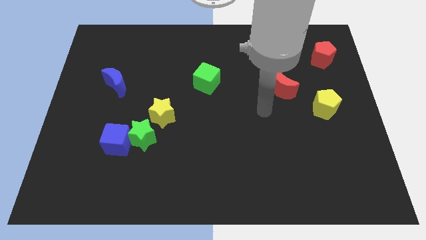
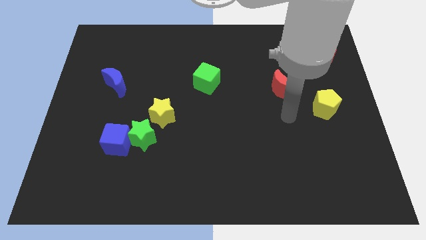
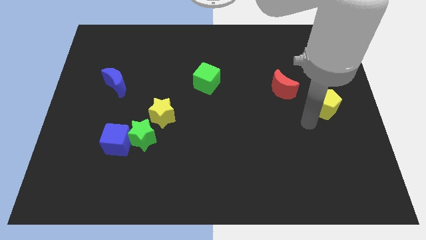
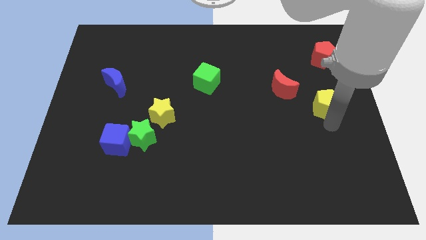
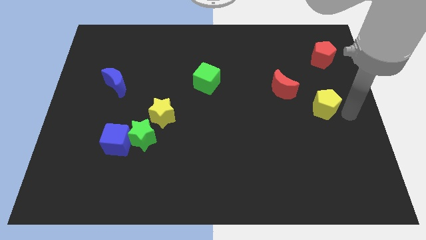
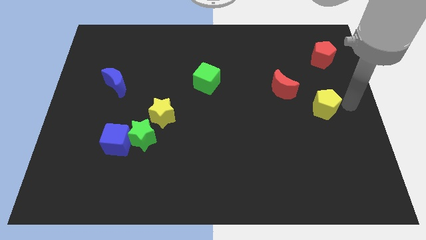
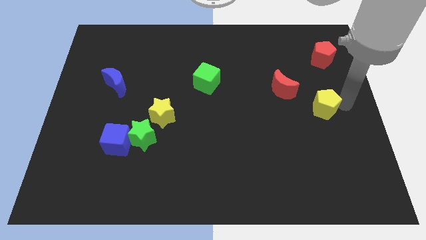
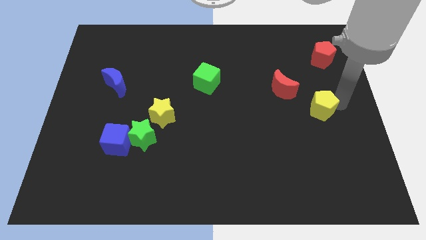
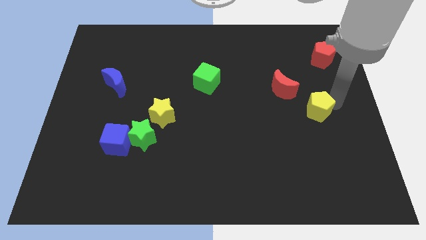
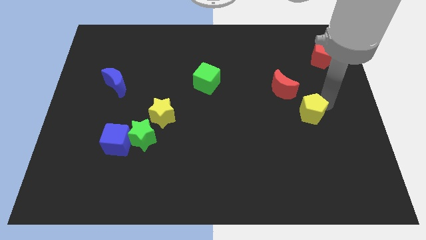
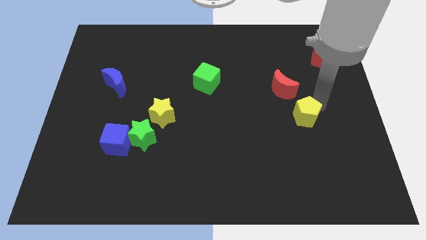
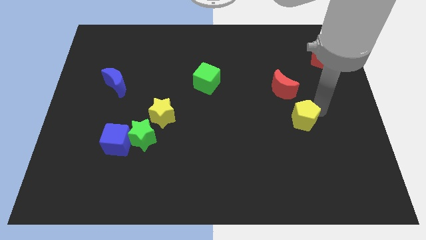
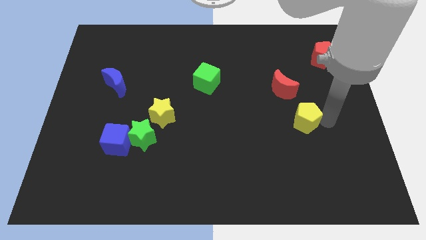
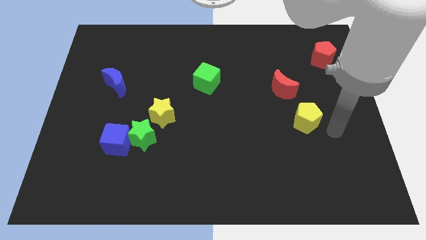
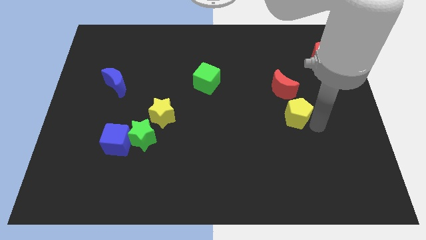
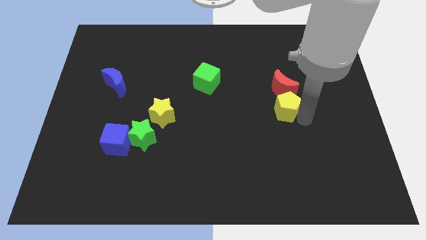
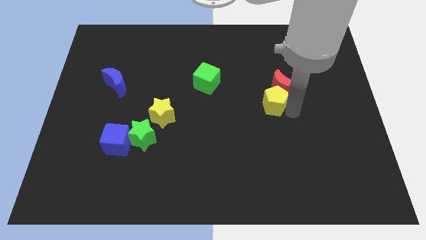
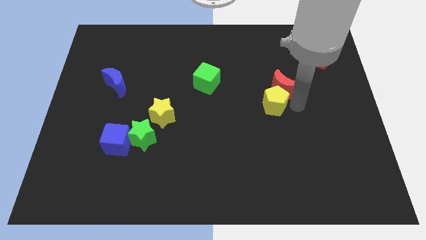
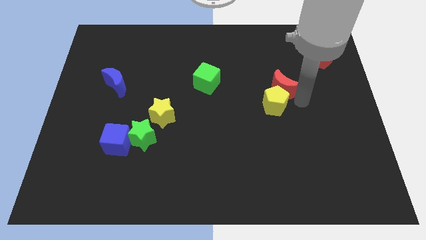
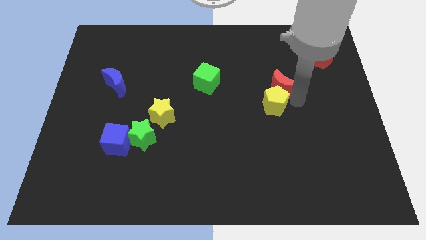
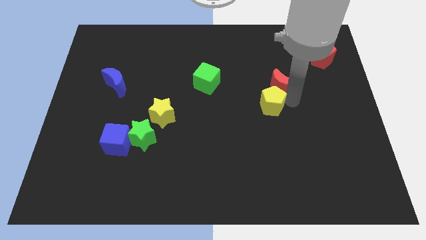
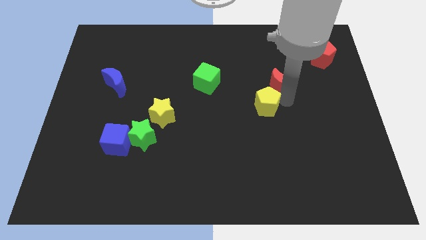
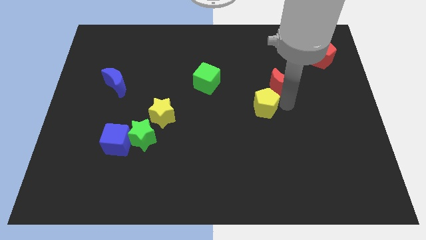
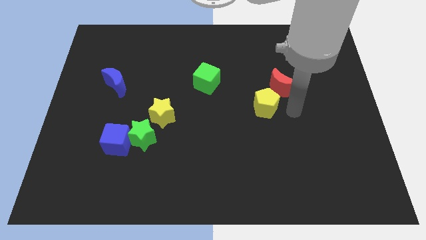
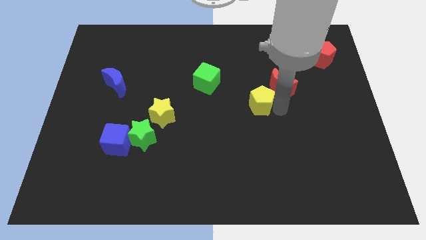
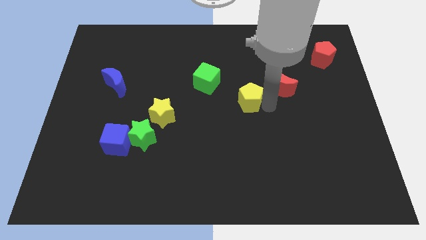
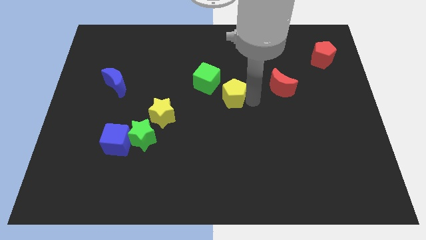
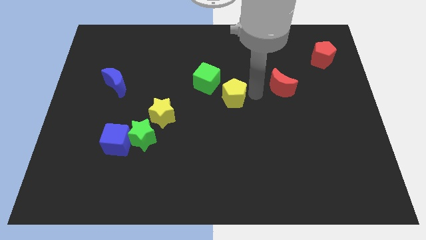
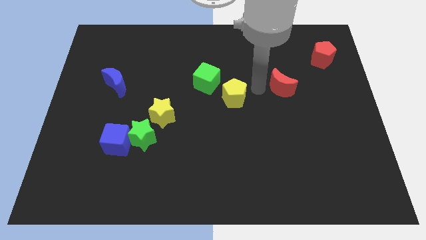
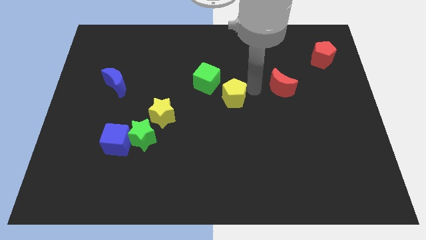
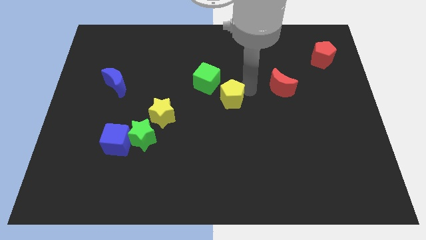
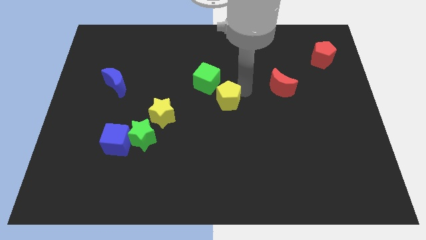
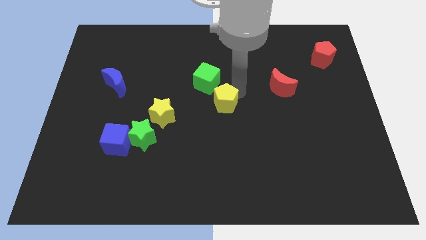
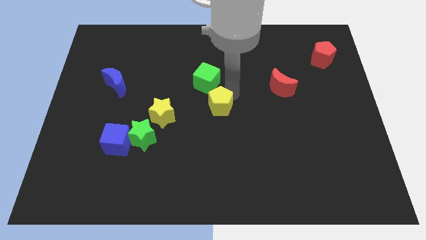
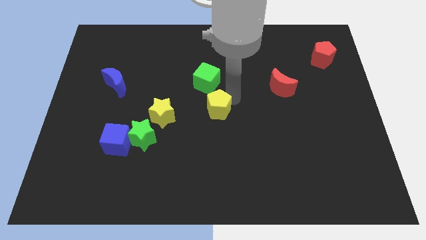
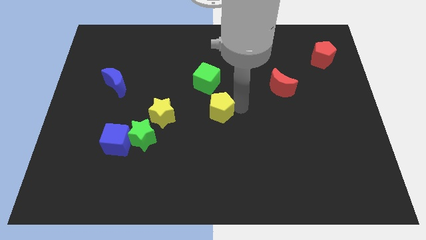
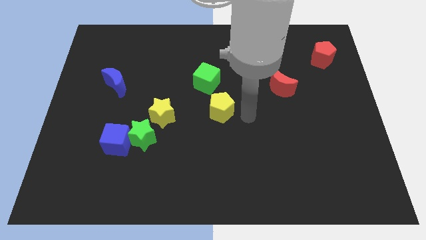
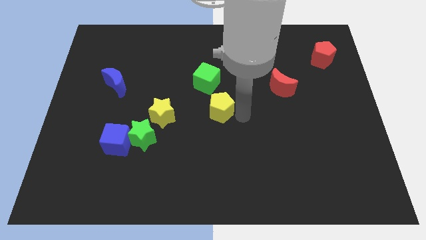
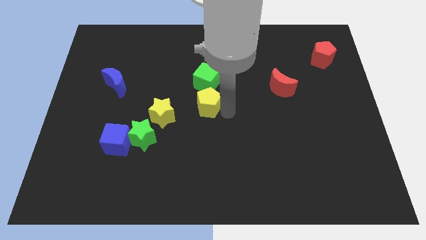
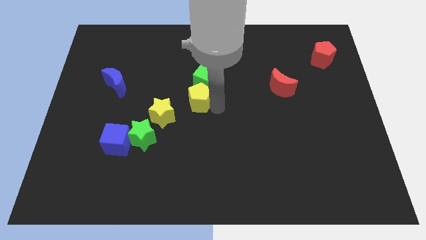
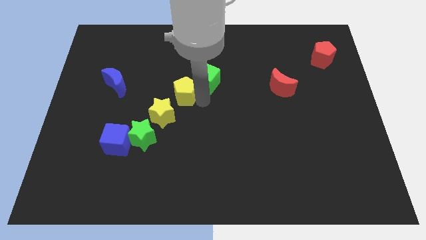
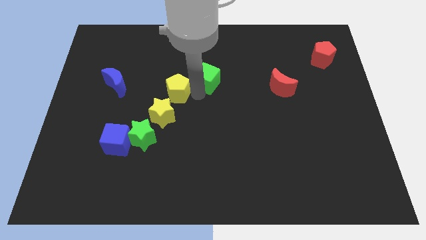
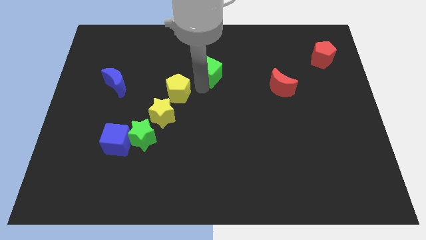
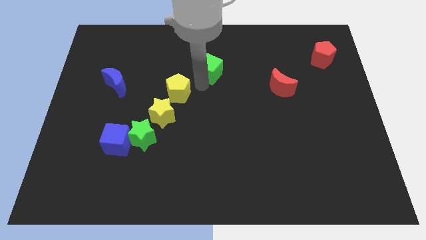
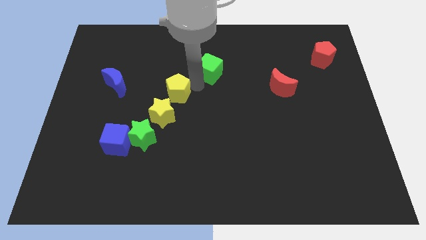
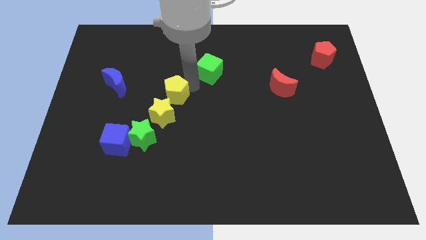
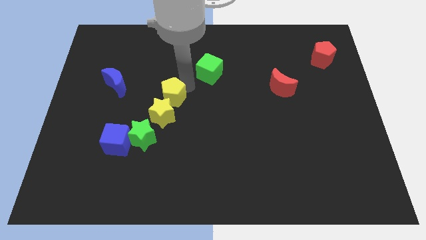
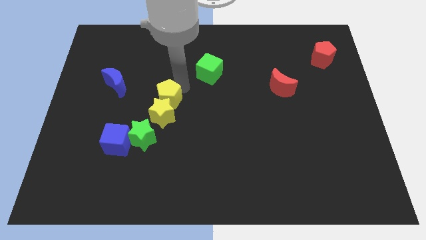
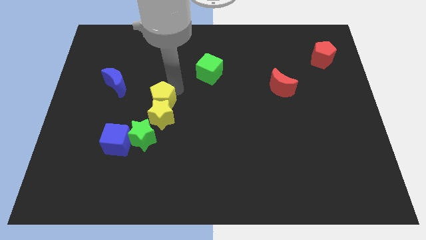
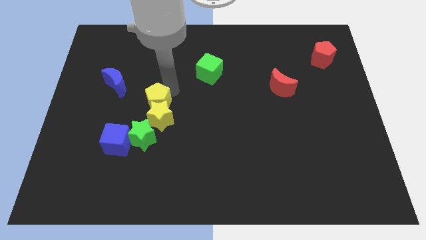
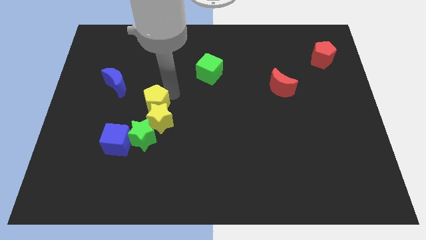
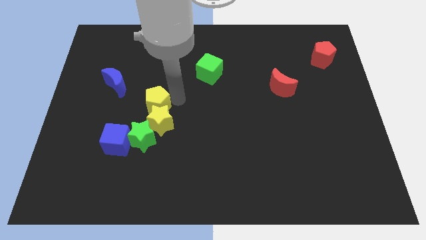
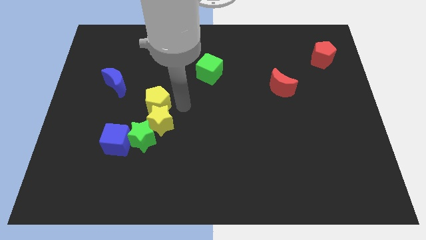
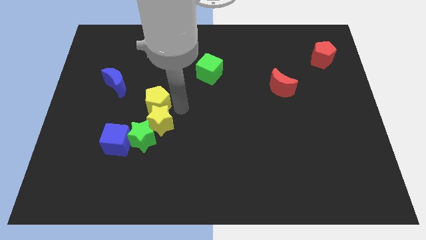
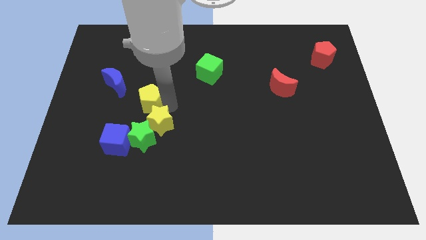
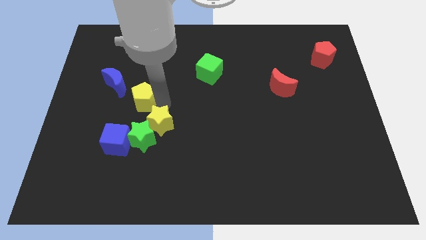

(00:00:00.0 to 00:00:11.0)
push the yellow pentagon above the blue cube

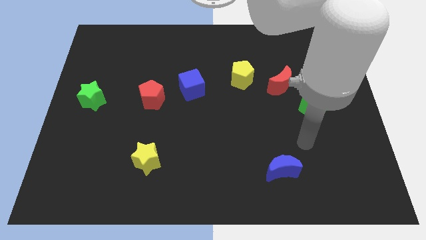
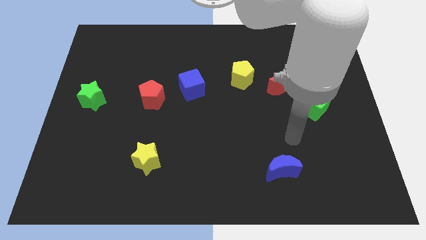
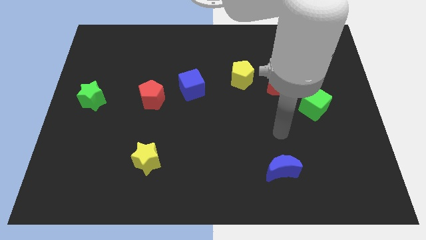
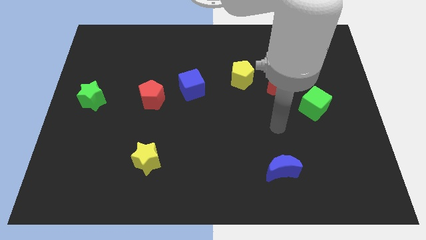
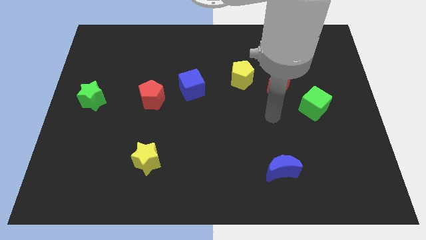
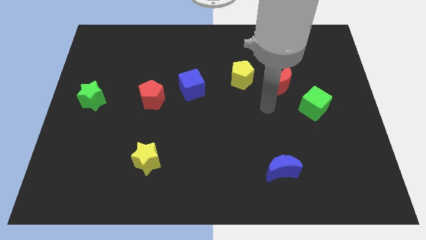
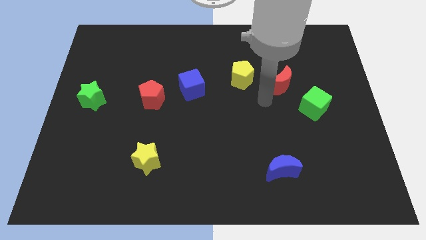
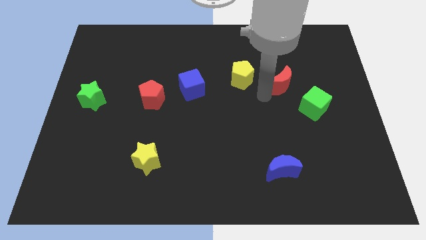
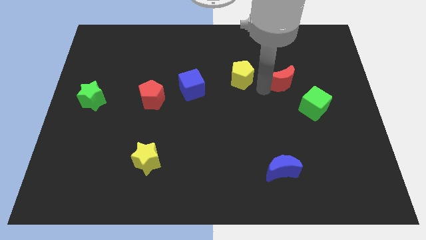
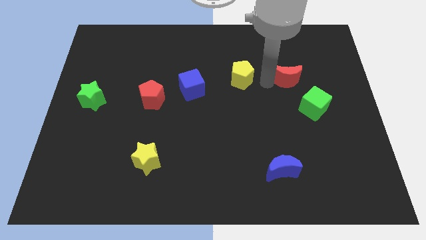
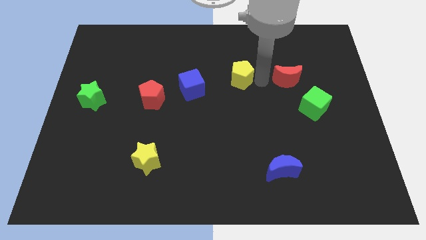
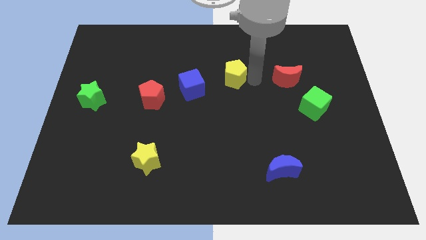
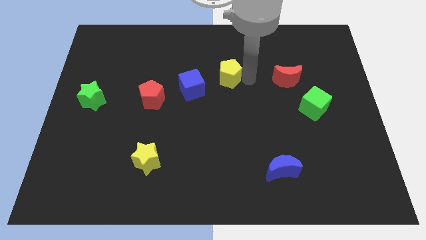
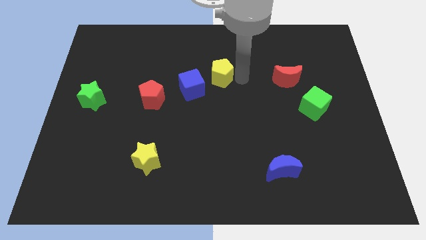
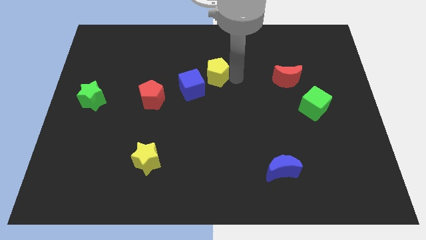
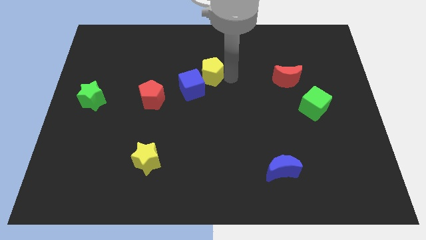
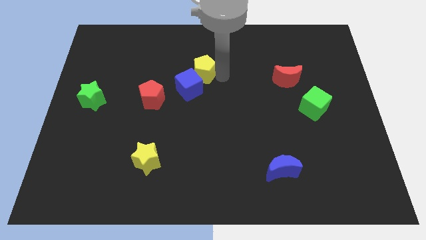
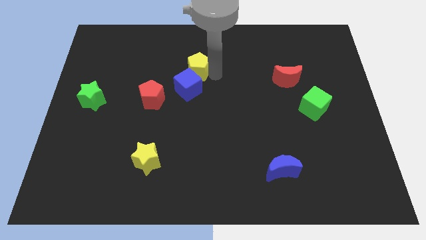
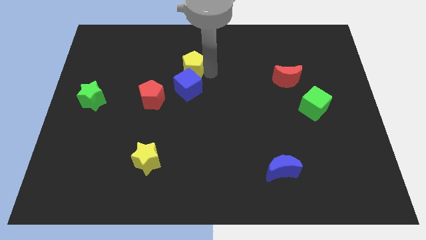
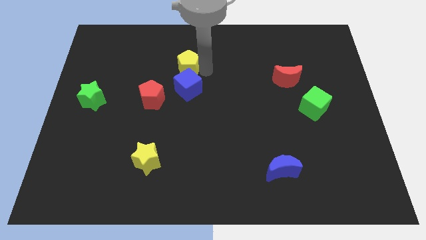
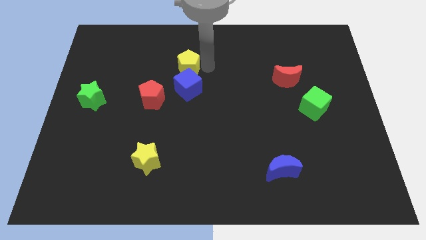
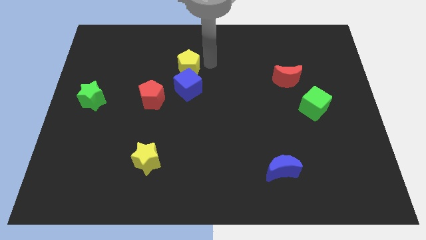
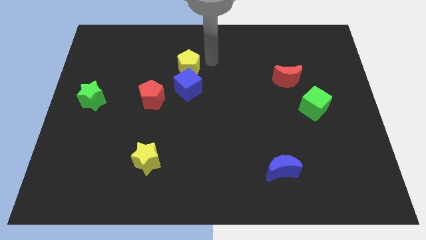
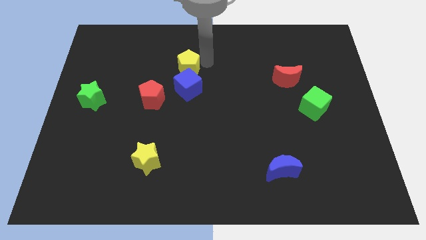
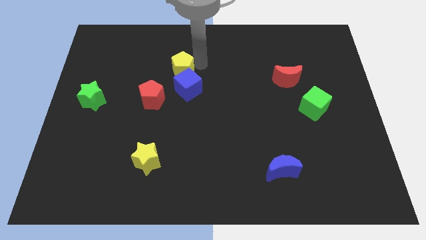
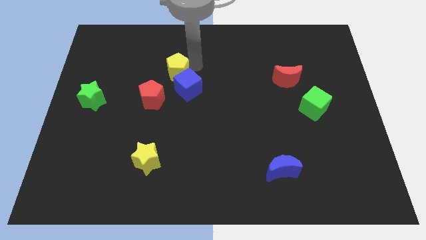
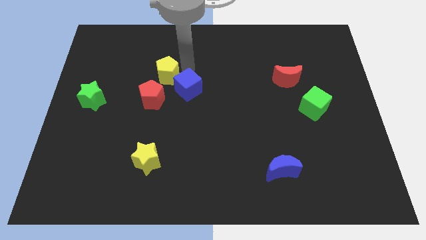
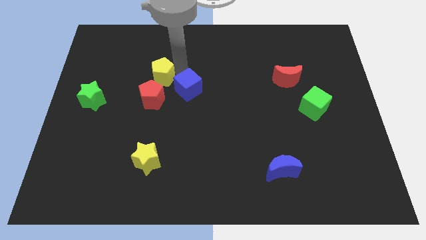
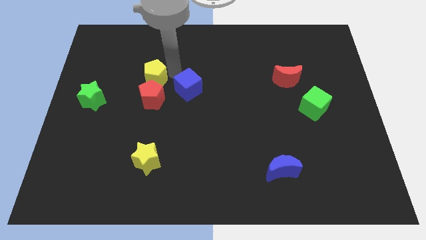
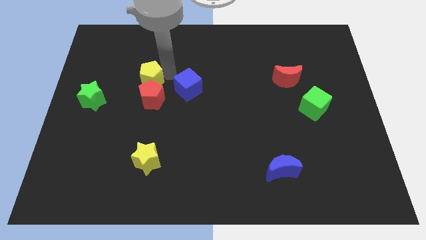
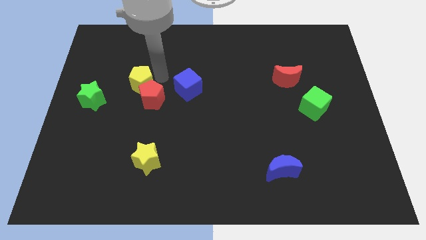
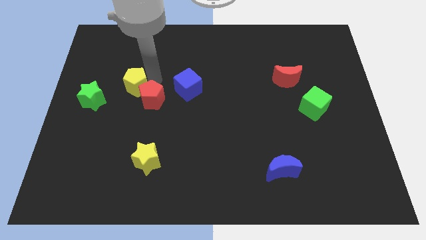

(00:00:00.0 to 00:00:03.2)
put the yellow pentagon to the top right side of the green star
